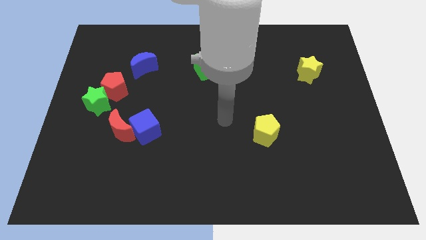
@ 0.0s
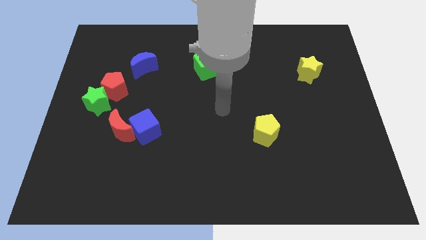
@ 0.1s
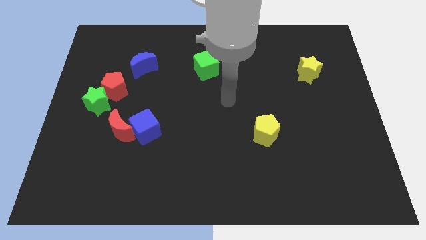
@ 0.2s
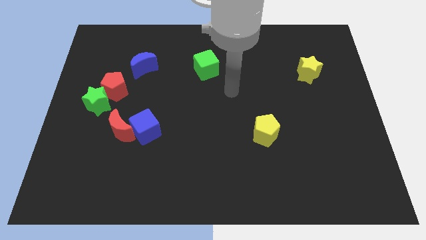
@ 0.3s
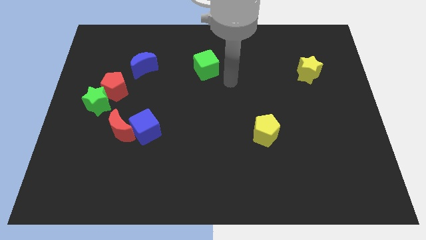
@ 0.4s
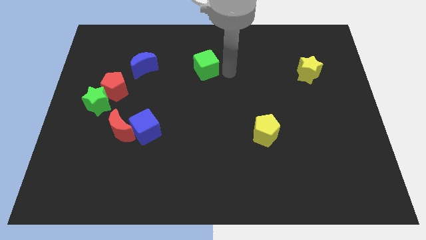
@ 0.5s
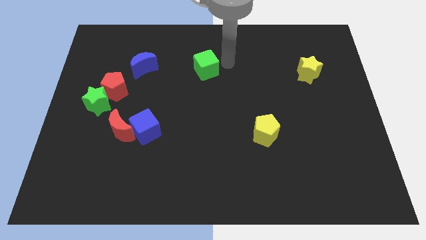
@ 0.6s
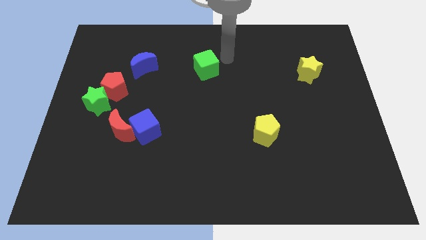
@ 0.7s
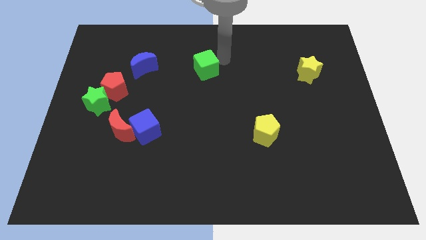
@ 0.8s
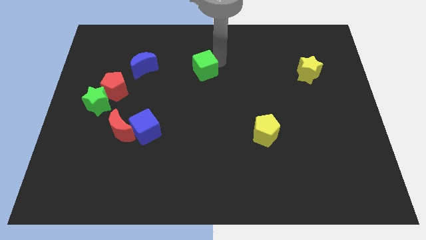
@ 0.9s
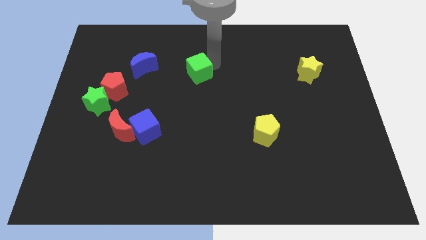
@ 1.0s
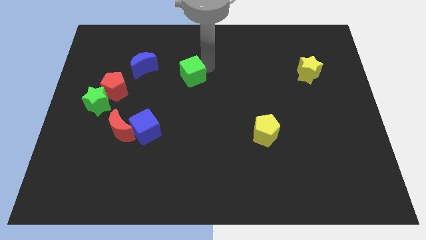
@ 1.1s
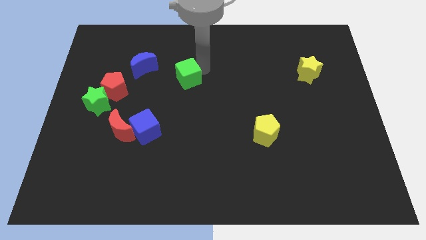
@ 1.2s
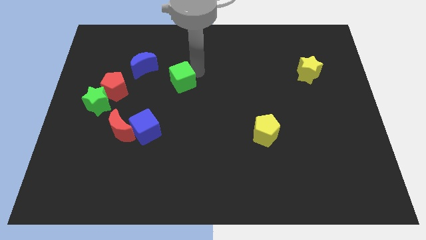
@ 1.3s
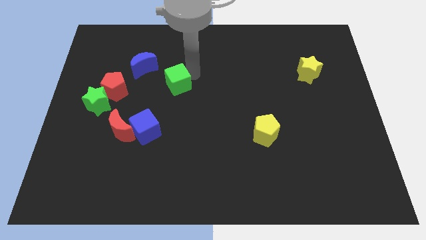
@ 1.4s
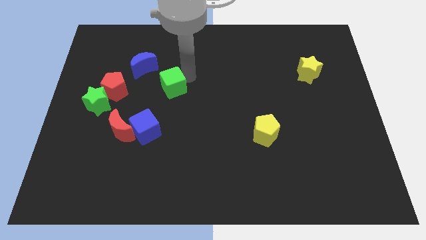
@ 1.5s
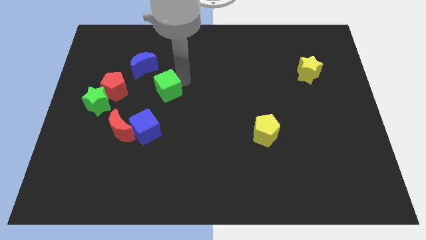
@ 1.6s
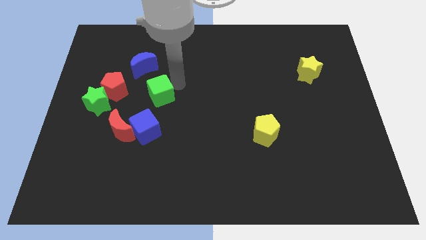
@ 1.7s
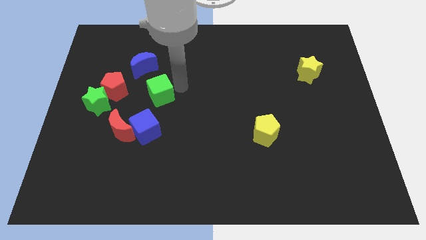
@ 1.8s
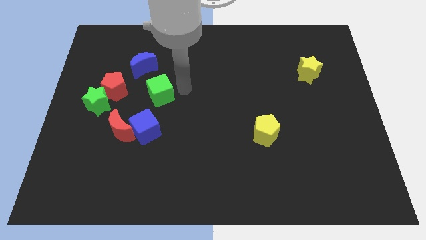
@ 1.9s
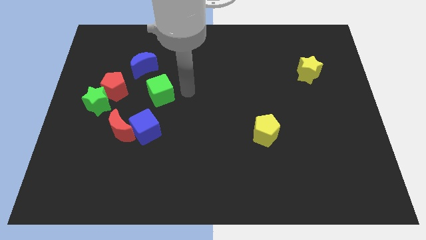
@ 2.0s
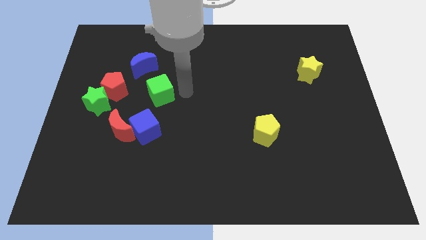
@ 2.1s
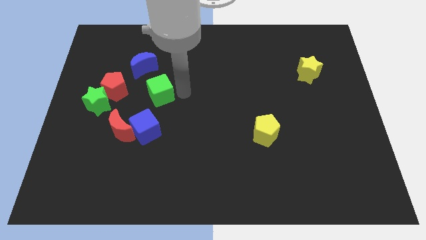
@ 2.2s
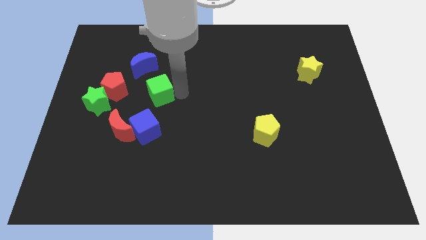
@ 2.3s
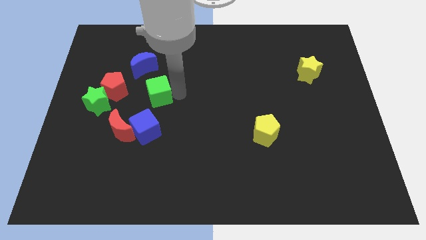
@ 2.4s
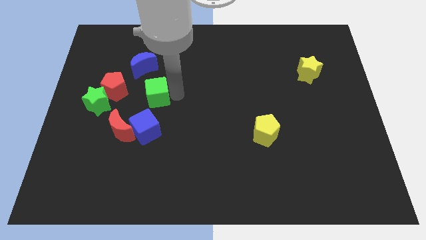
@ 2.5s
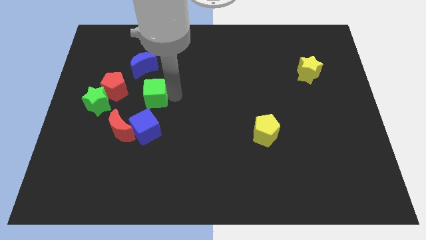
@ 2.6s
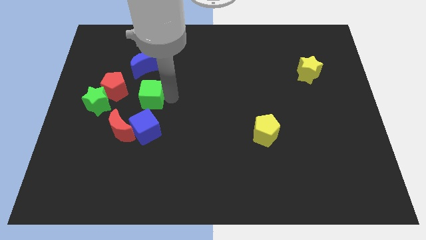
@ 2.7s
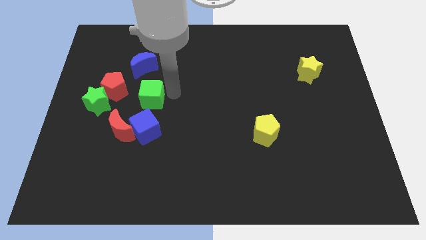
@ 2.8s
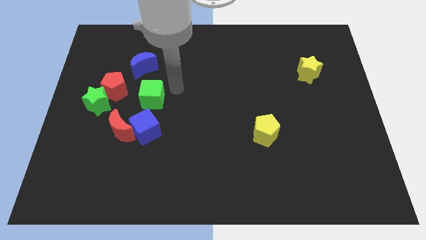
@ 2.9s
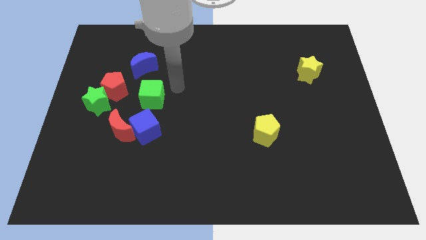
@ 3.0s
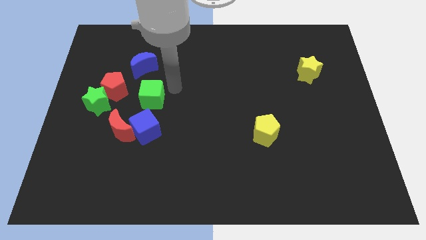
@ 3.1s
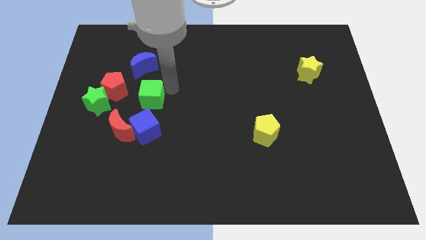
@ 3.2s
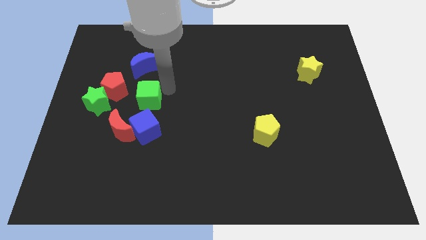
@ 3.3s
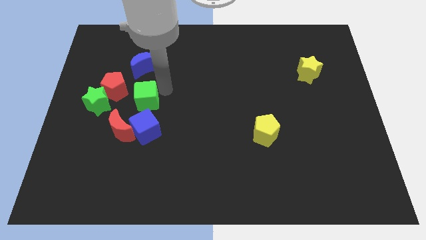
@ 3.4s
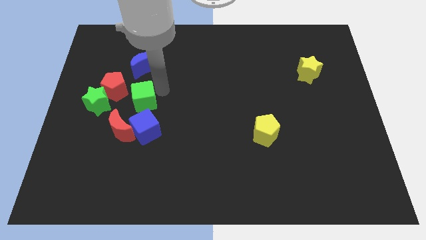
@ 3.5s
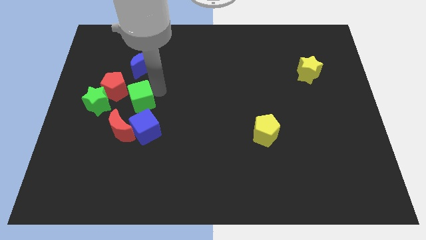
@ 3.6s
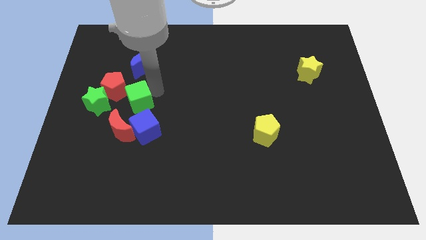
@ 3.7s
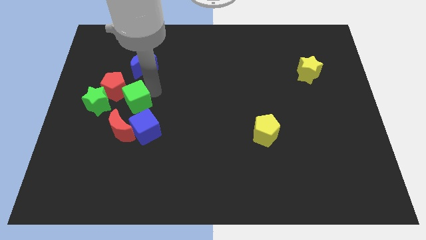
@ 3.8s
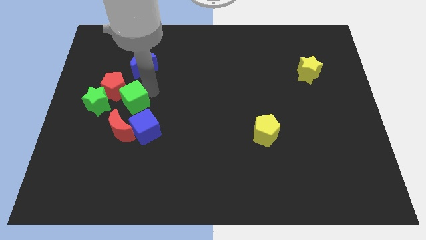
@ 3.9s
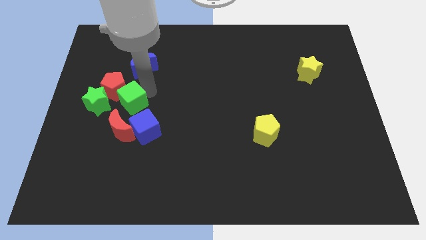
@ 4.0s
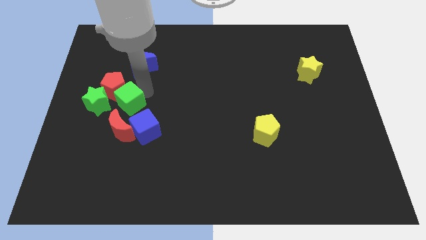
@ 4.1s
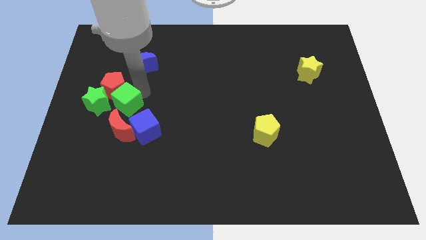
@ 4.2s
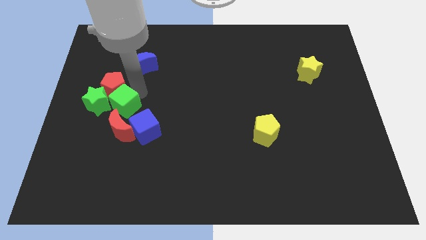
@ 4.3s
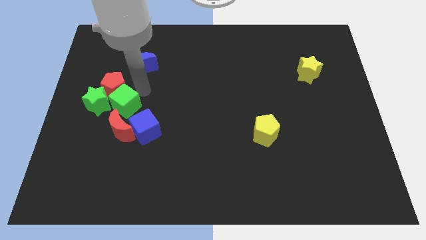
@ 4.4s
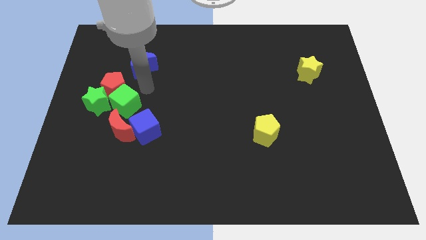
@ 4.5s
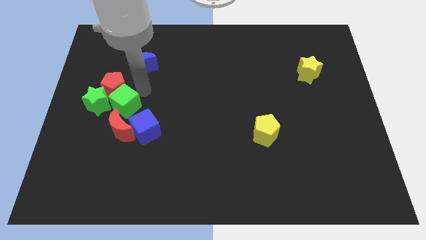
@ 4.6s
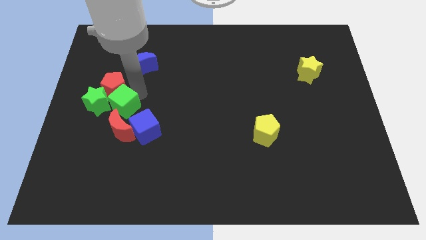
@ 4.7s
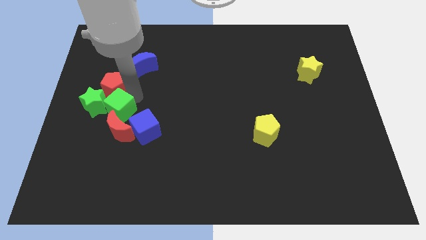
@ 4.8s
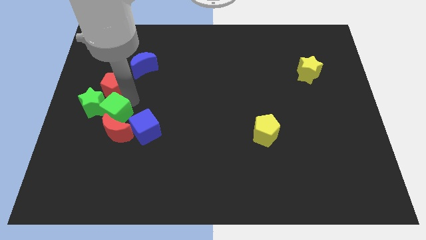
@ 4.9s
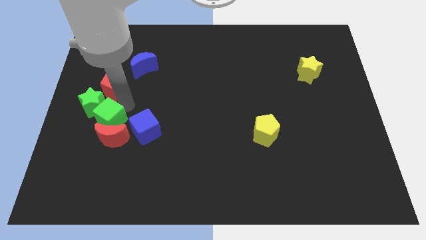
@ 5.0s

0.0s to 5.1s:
move the green cube to the bottom of the green star

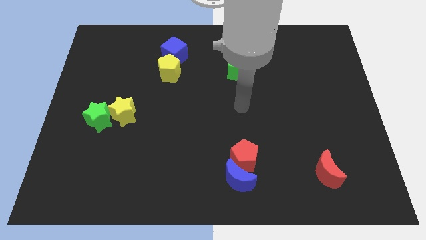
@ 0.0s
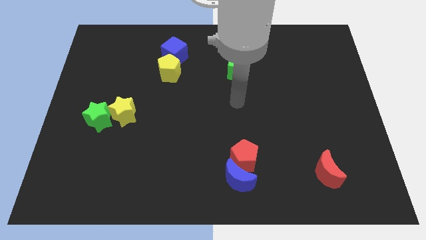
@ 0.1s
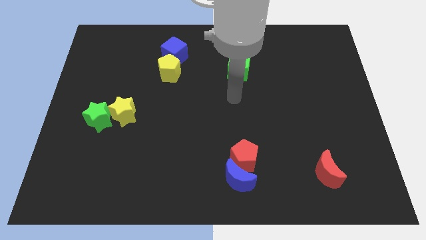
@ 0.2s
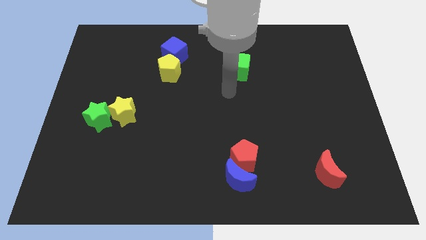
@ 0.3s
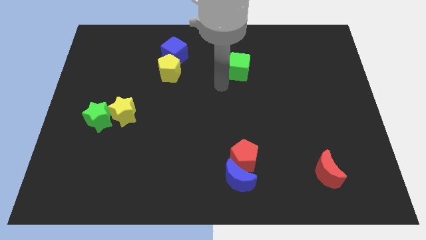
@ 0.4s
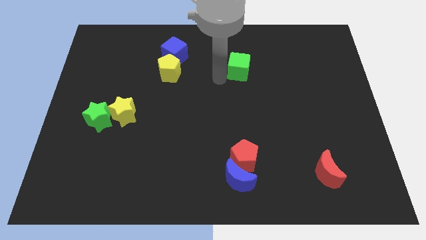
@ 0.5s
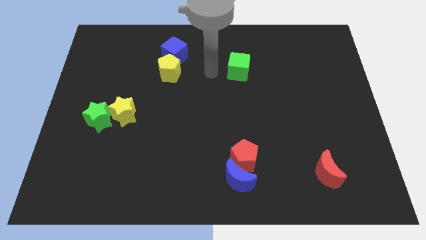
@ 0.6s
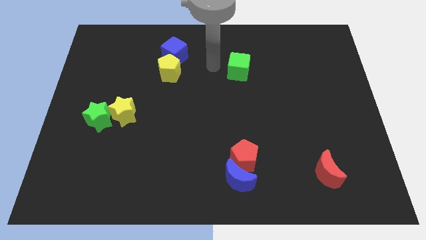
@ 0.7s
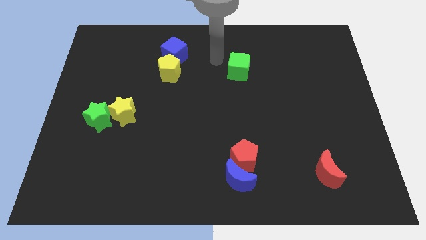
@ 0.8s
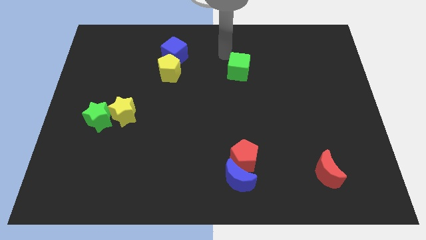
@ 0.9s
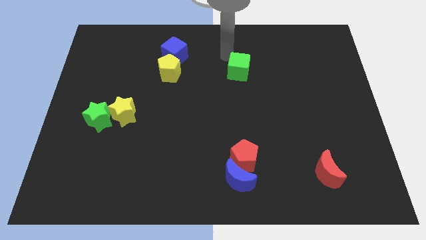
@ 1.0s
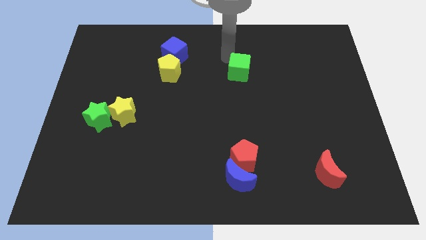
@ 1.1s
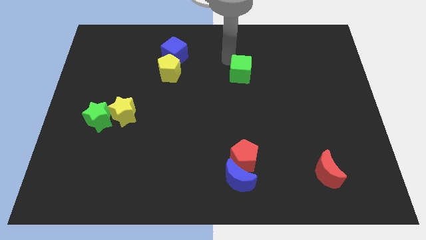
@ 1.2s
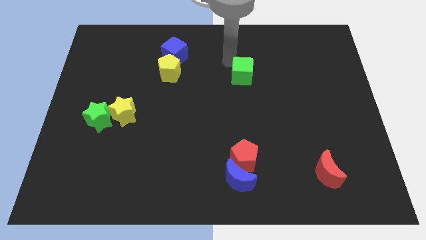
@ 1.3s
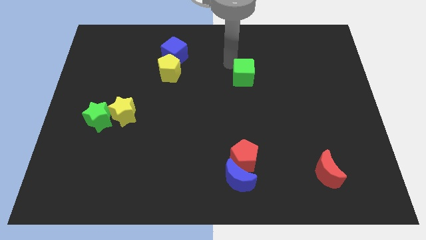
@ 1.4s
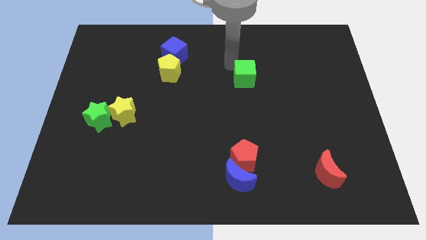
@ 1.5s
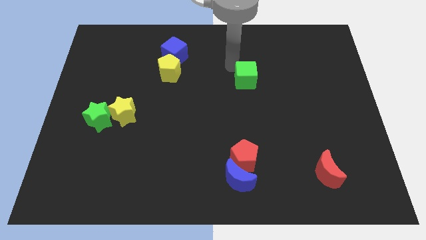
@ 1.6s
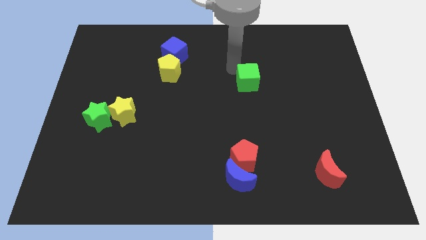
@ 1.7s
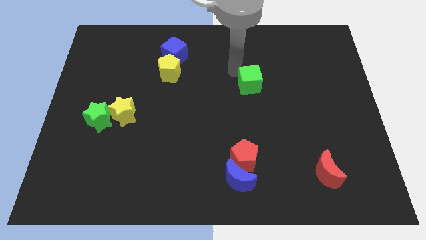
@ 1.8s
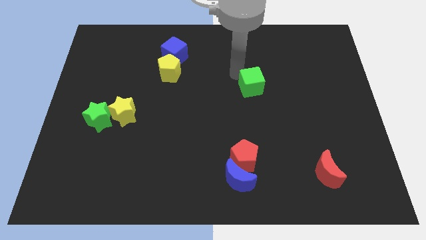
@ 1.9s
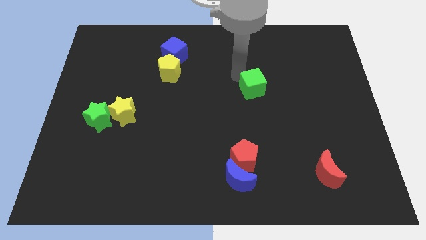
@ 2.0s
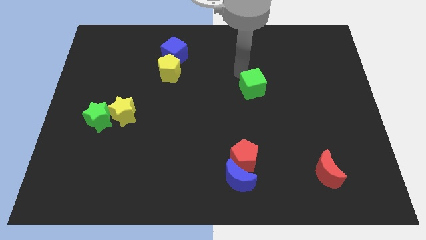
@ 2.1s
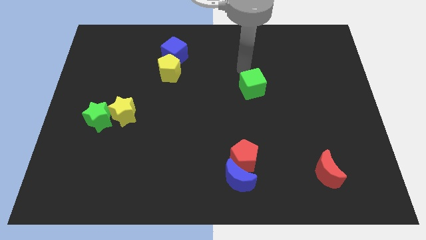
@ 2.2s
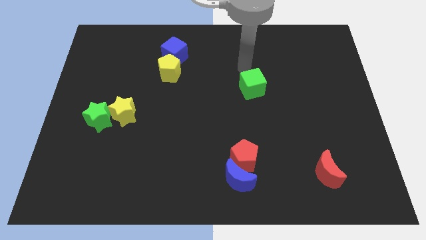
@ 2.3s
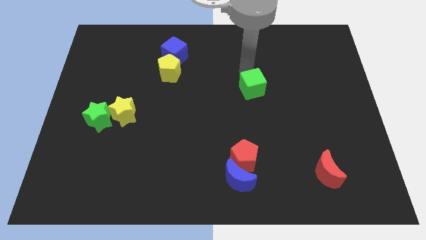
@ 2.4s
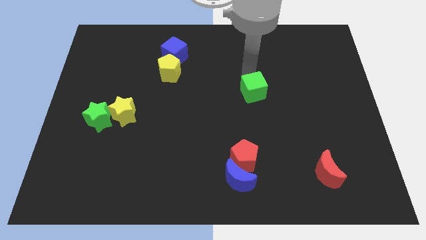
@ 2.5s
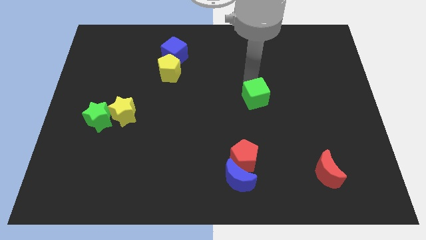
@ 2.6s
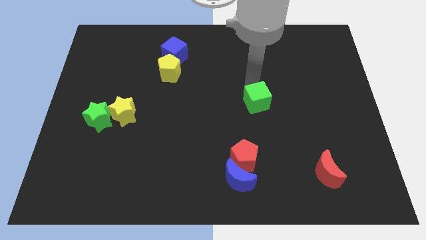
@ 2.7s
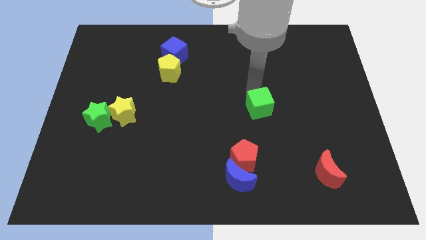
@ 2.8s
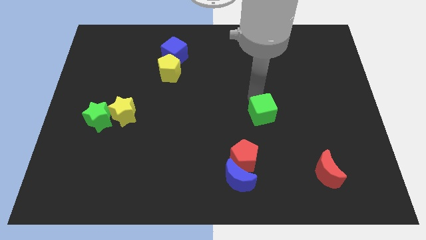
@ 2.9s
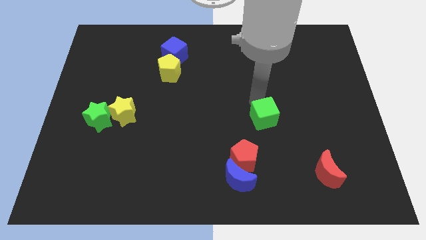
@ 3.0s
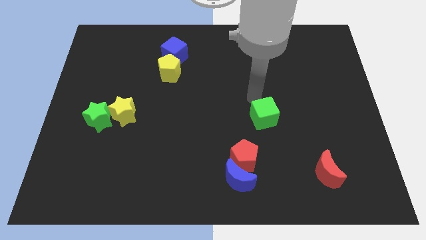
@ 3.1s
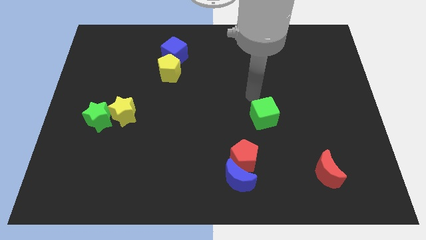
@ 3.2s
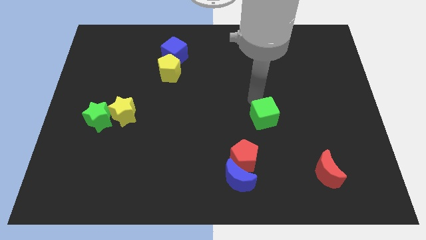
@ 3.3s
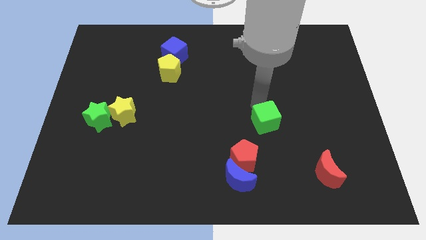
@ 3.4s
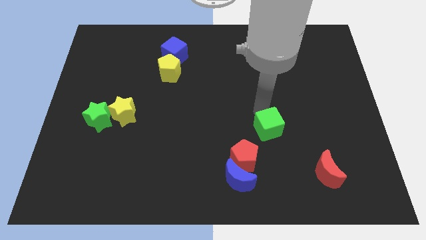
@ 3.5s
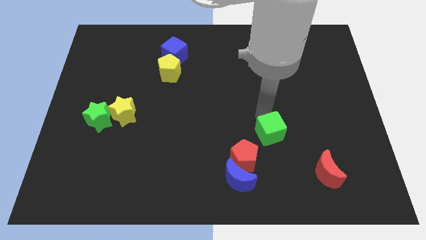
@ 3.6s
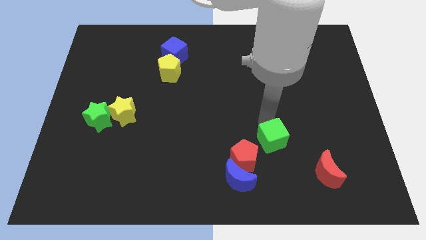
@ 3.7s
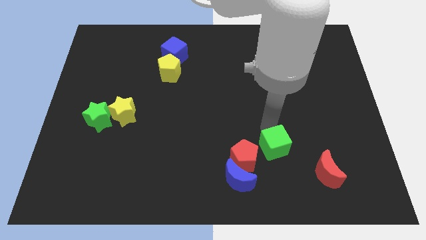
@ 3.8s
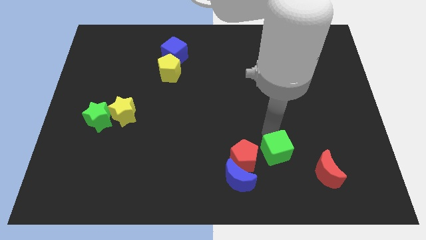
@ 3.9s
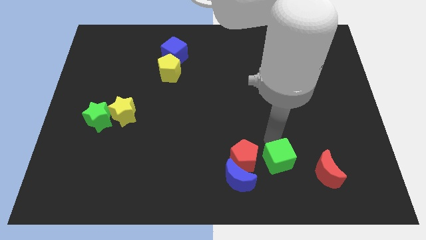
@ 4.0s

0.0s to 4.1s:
move the green cube to the right side of the blue moon
